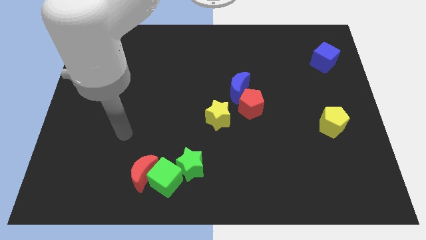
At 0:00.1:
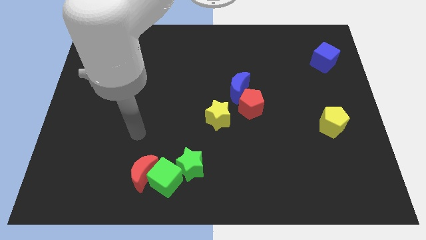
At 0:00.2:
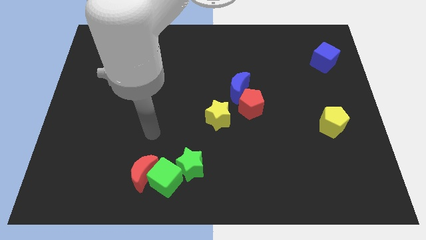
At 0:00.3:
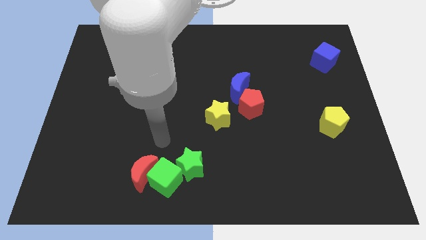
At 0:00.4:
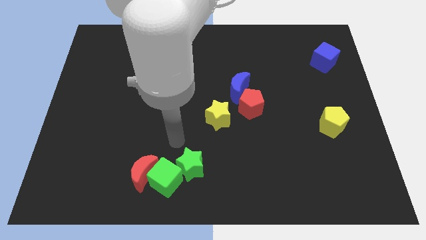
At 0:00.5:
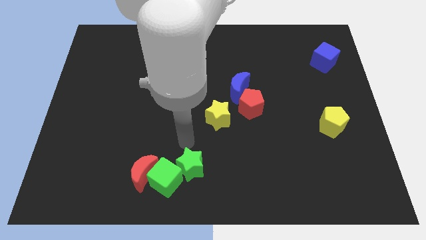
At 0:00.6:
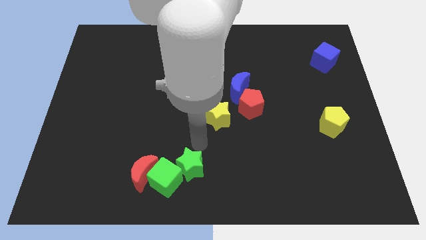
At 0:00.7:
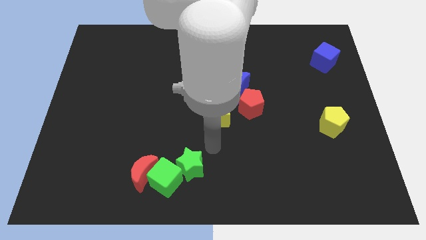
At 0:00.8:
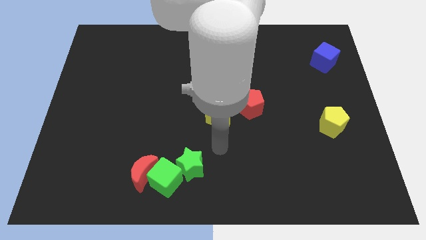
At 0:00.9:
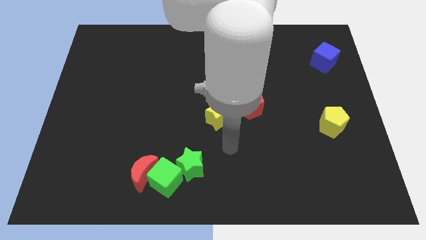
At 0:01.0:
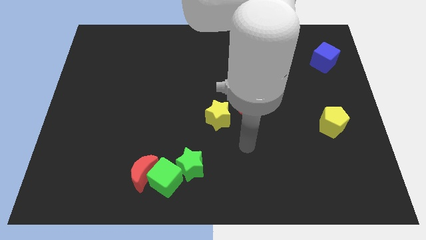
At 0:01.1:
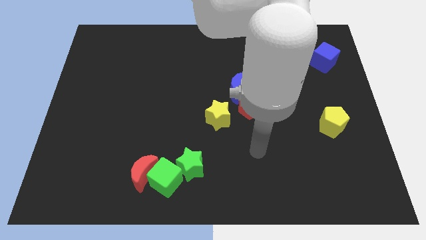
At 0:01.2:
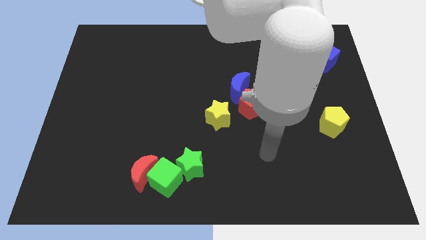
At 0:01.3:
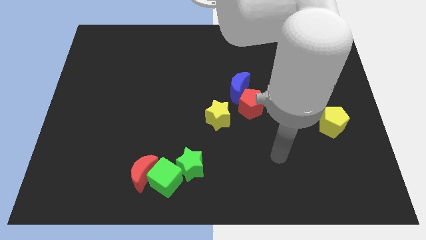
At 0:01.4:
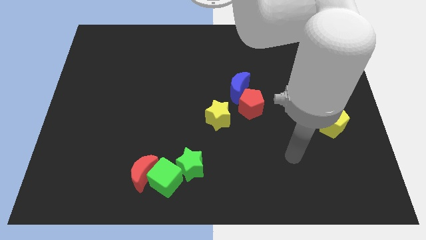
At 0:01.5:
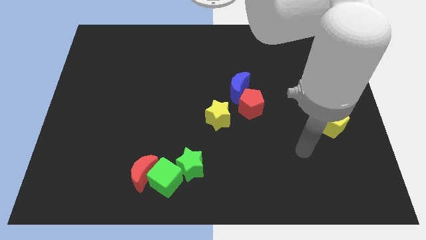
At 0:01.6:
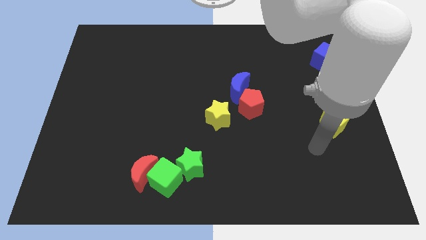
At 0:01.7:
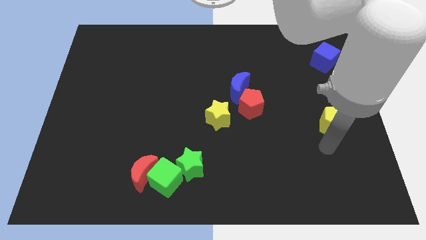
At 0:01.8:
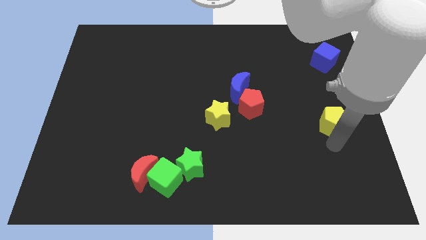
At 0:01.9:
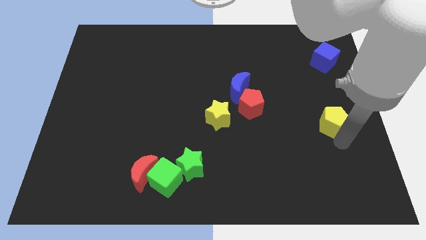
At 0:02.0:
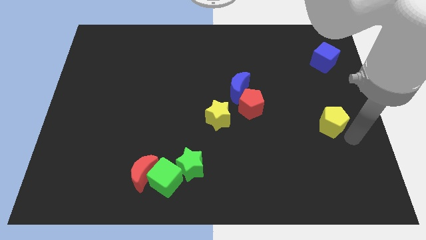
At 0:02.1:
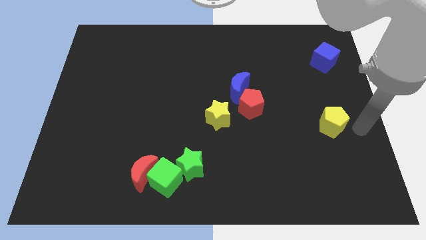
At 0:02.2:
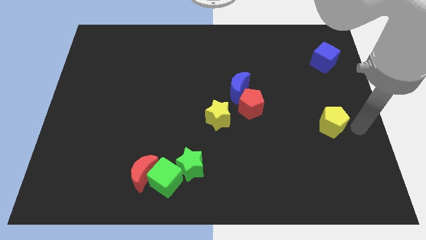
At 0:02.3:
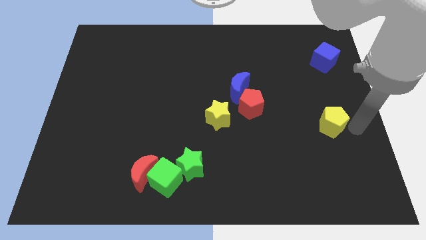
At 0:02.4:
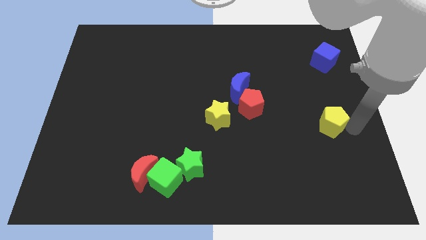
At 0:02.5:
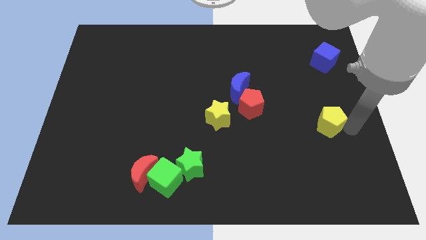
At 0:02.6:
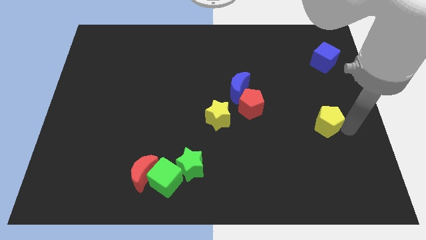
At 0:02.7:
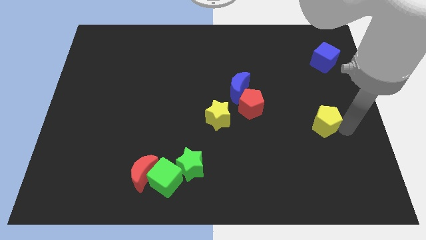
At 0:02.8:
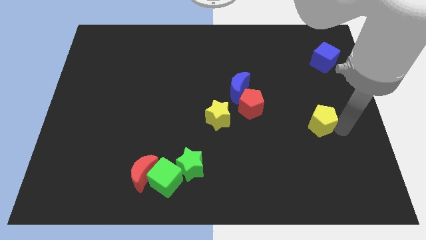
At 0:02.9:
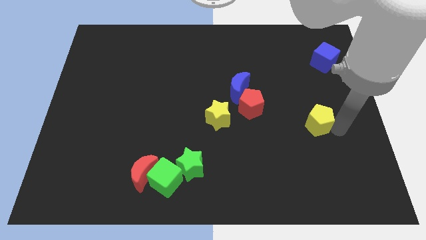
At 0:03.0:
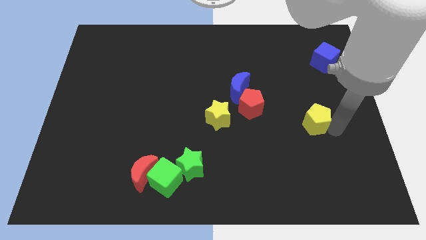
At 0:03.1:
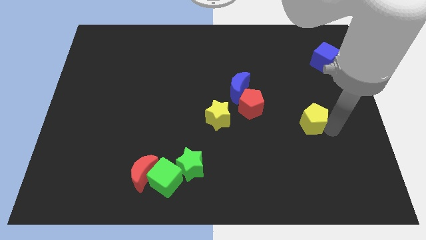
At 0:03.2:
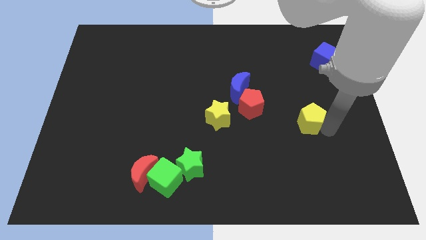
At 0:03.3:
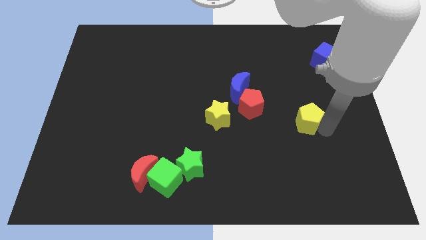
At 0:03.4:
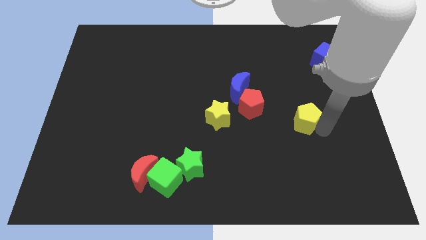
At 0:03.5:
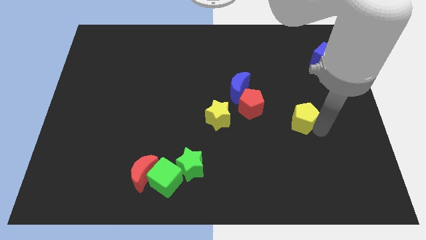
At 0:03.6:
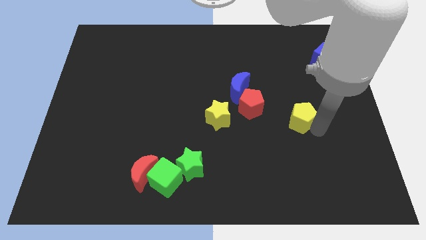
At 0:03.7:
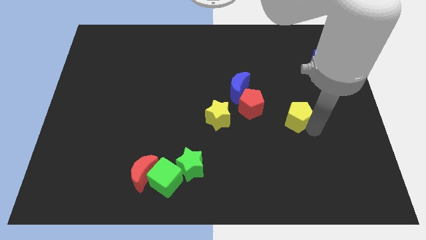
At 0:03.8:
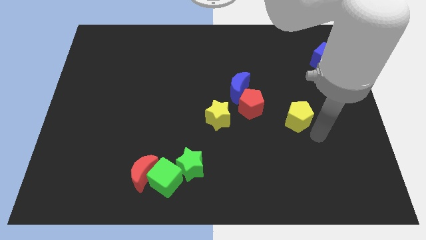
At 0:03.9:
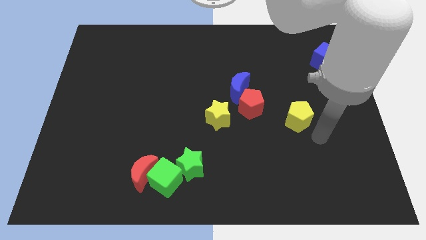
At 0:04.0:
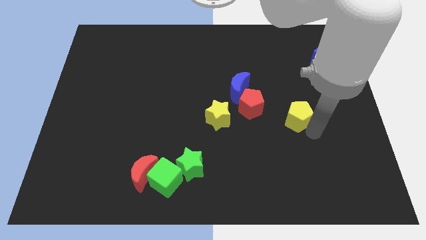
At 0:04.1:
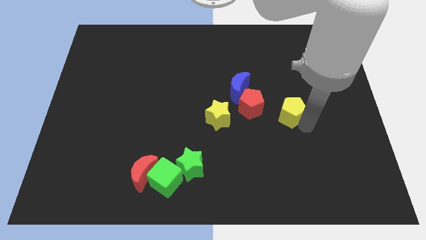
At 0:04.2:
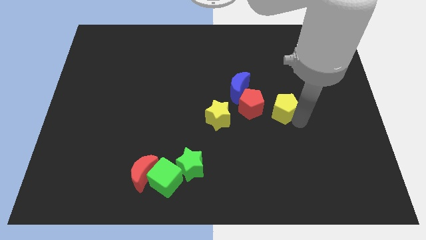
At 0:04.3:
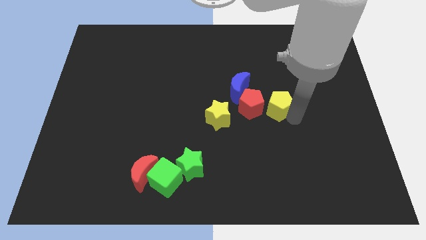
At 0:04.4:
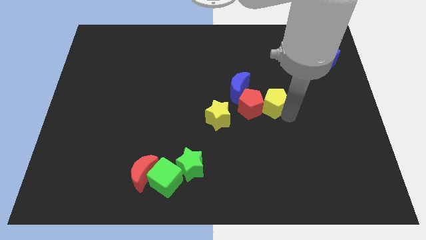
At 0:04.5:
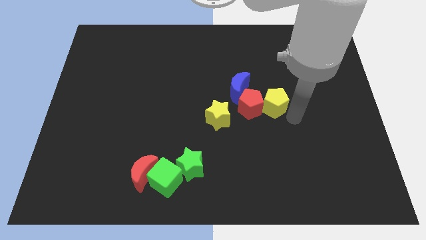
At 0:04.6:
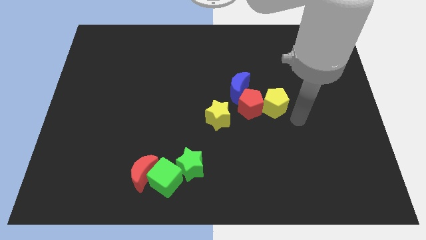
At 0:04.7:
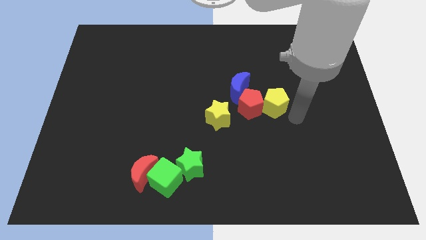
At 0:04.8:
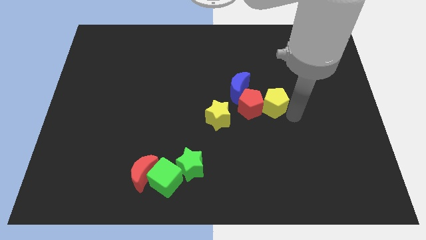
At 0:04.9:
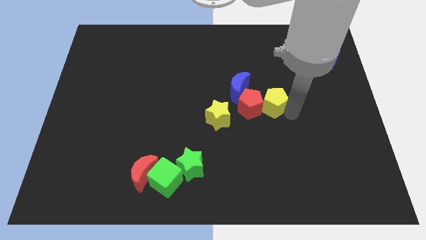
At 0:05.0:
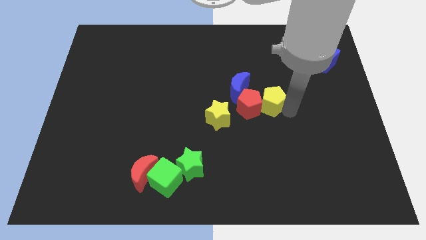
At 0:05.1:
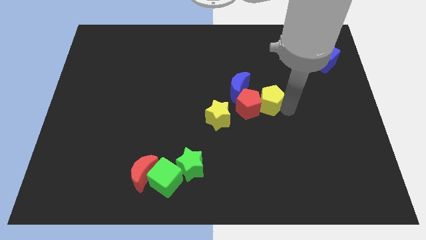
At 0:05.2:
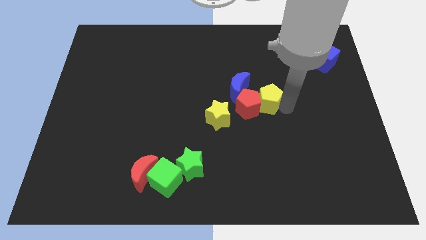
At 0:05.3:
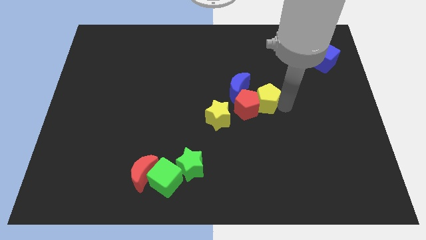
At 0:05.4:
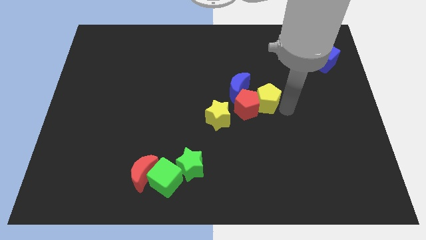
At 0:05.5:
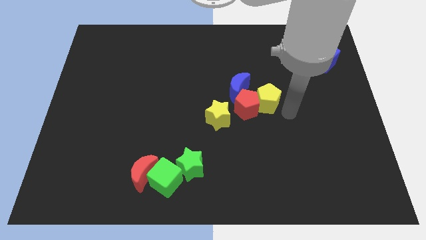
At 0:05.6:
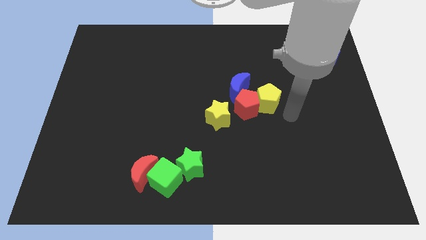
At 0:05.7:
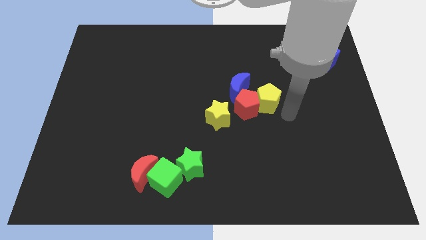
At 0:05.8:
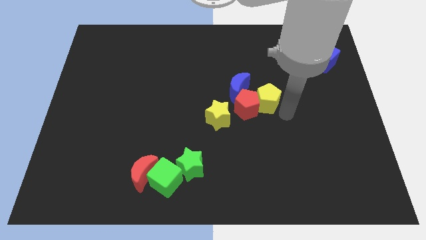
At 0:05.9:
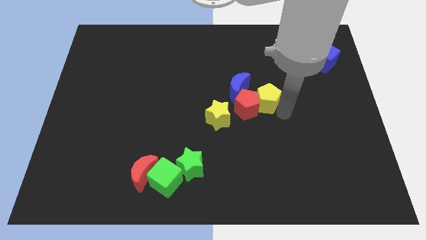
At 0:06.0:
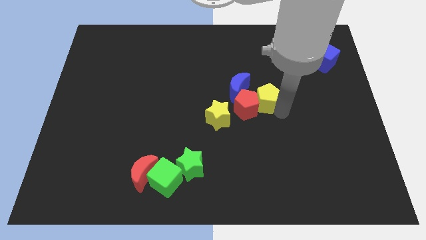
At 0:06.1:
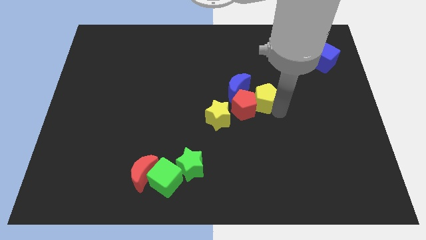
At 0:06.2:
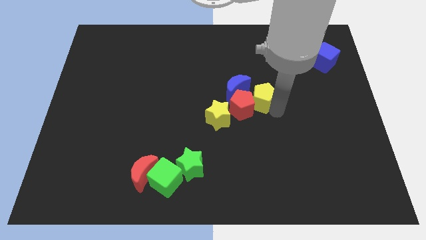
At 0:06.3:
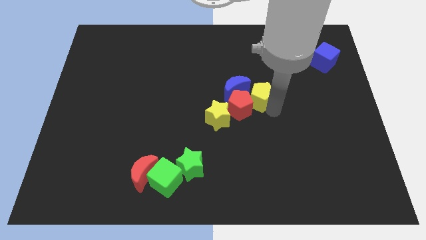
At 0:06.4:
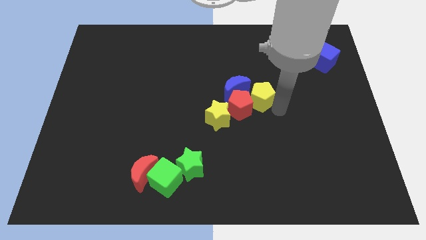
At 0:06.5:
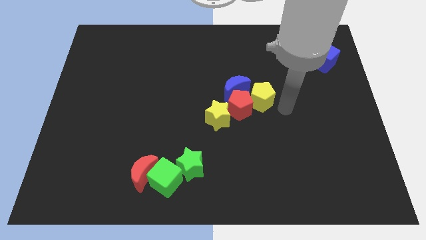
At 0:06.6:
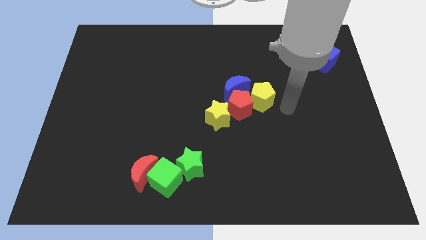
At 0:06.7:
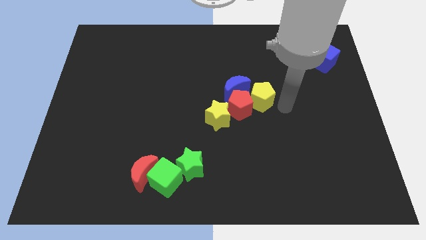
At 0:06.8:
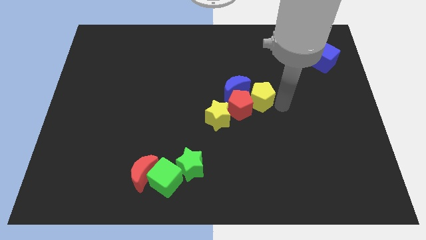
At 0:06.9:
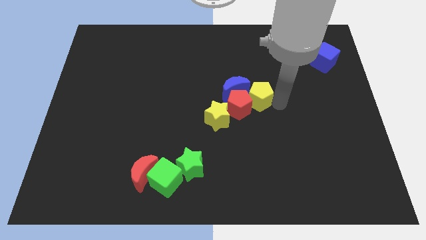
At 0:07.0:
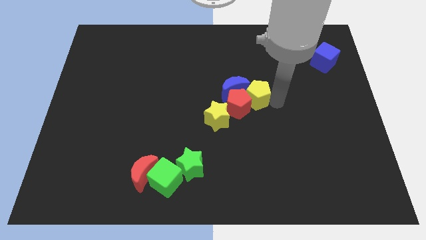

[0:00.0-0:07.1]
move the yellow pentagon next to the blue moon

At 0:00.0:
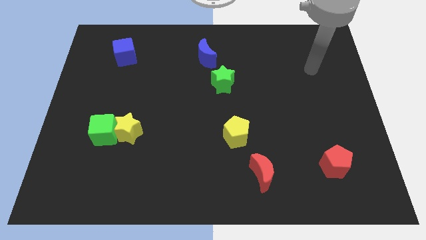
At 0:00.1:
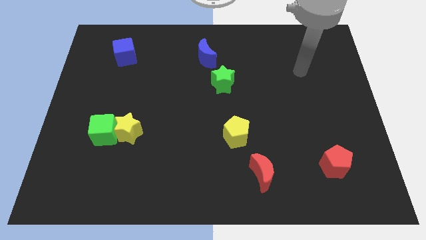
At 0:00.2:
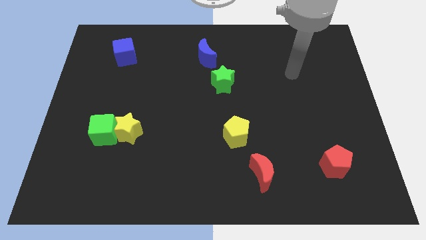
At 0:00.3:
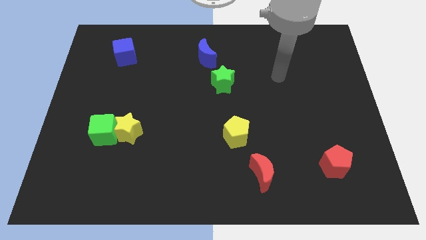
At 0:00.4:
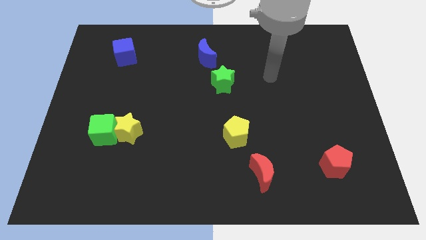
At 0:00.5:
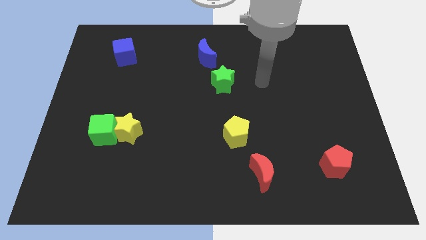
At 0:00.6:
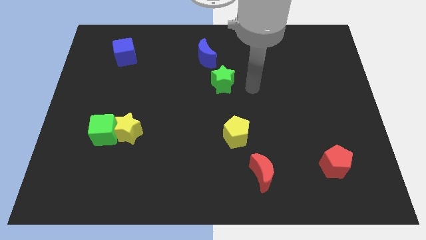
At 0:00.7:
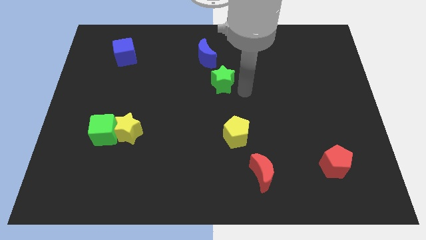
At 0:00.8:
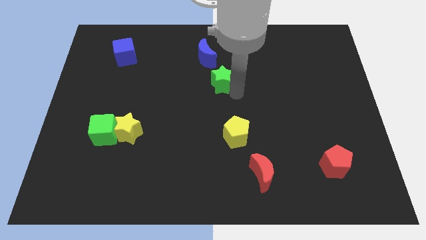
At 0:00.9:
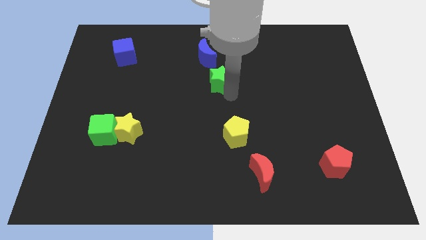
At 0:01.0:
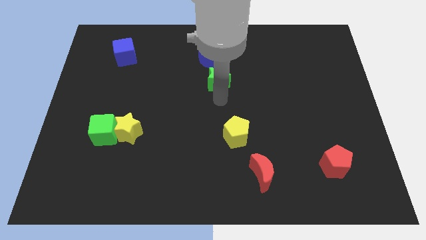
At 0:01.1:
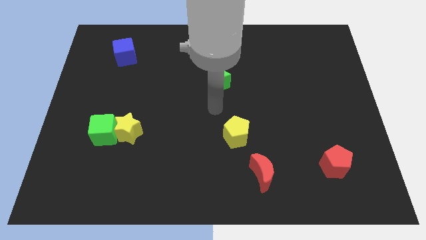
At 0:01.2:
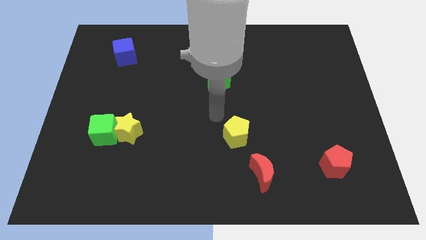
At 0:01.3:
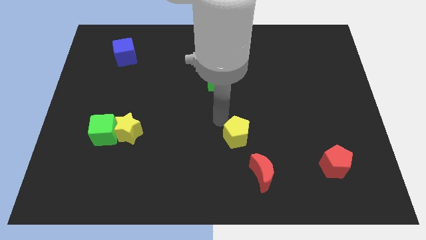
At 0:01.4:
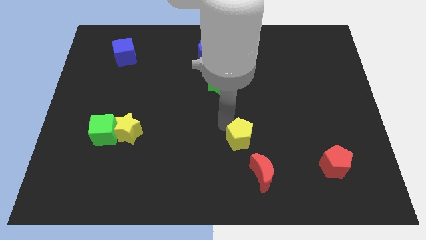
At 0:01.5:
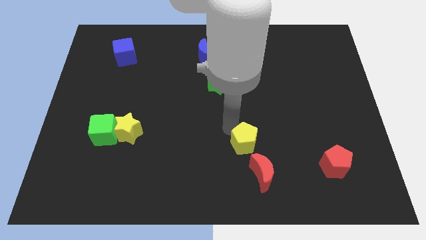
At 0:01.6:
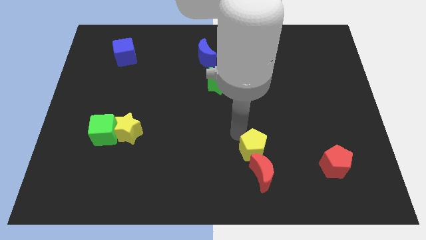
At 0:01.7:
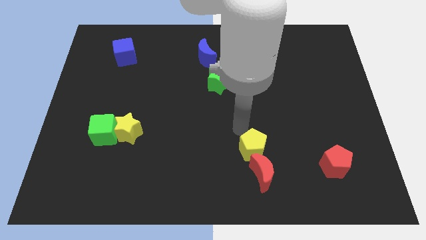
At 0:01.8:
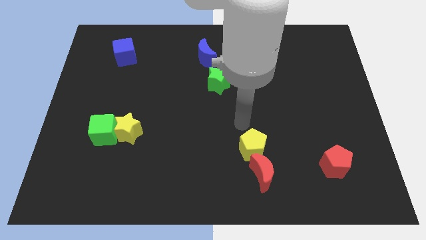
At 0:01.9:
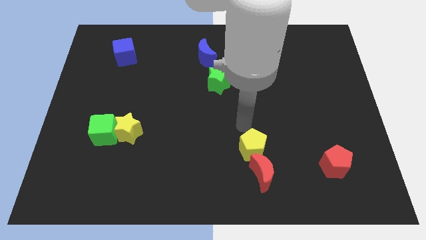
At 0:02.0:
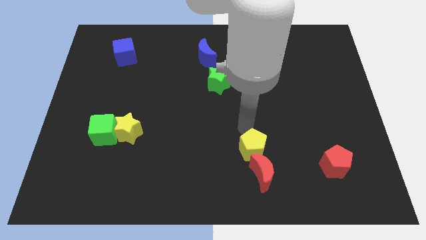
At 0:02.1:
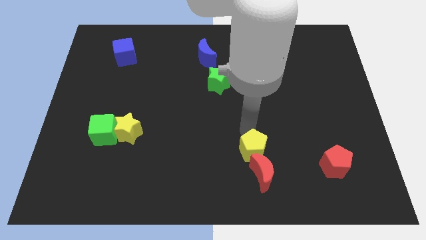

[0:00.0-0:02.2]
put the yellow pentagon towards the red moon
